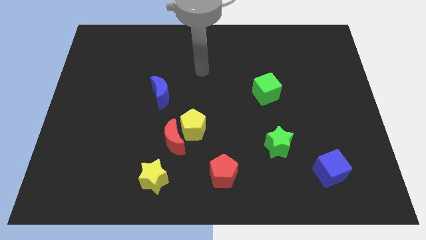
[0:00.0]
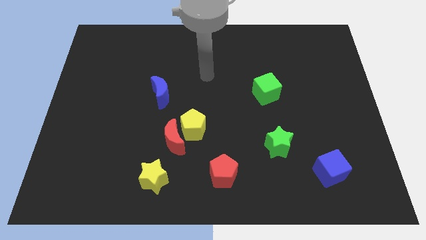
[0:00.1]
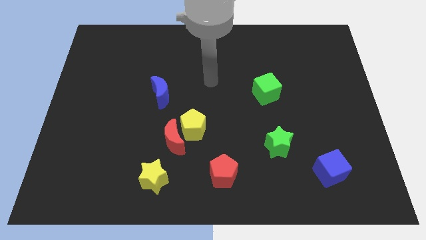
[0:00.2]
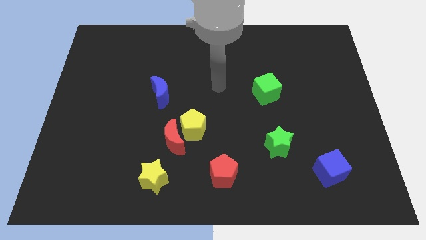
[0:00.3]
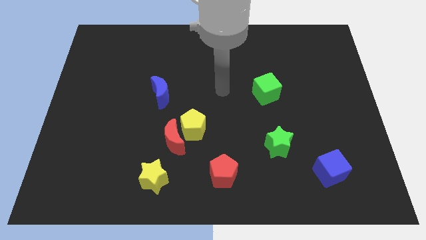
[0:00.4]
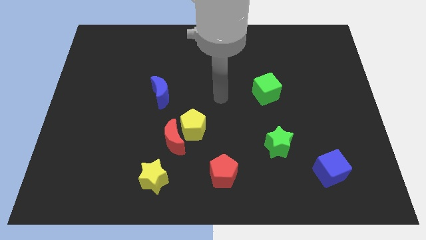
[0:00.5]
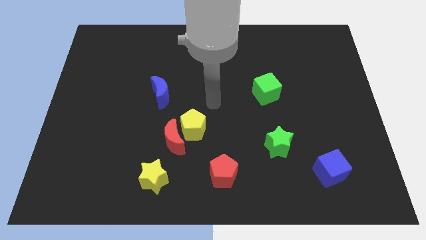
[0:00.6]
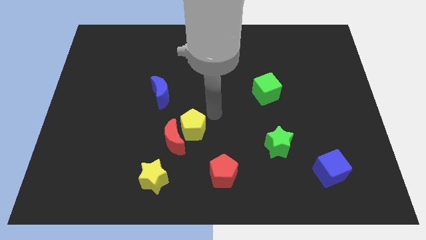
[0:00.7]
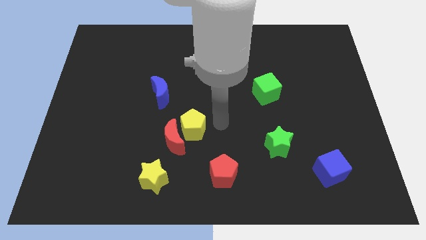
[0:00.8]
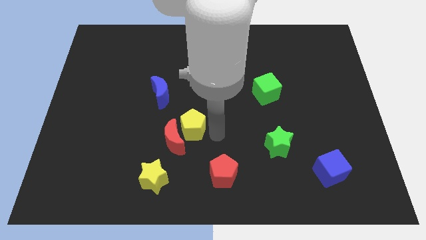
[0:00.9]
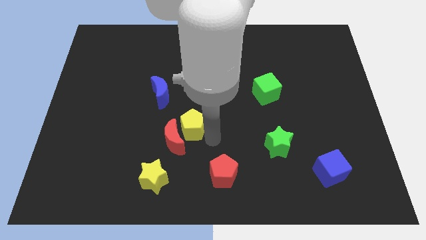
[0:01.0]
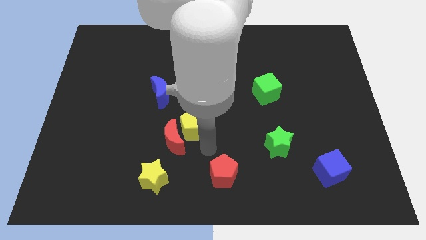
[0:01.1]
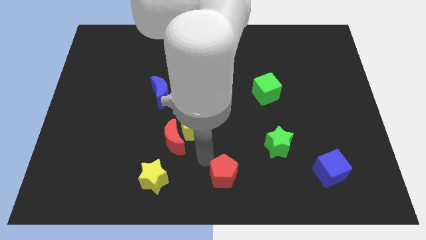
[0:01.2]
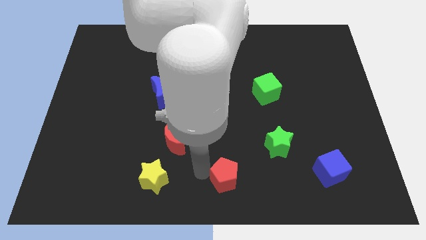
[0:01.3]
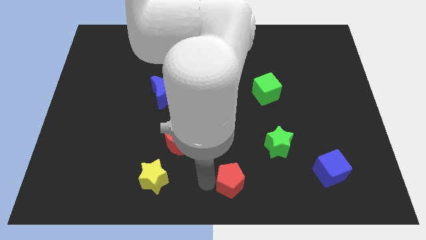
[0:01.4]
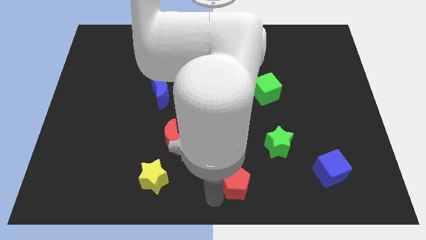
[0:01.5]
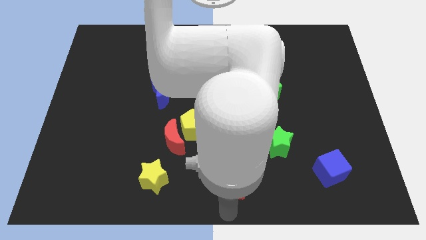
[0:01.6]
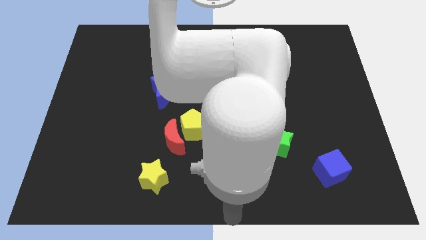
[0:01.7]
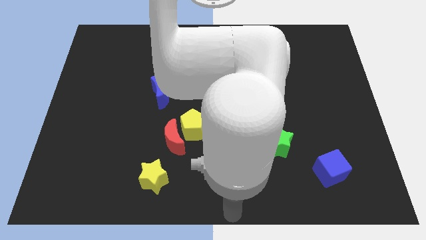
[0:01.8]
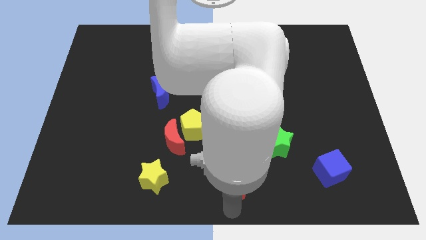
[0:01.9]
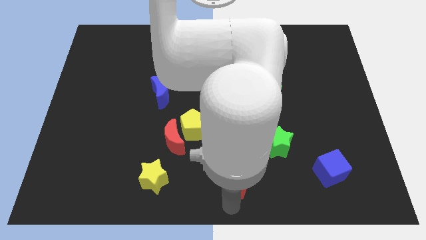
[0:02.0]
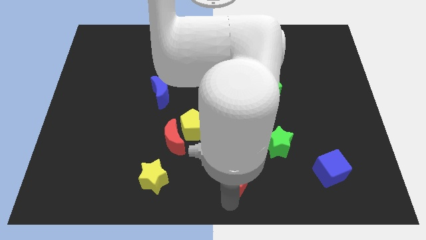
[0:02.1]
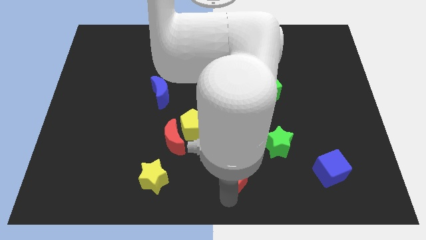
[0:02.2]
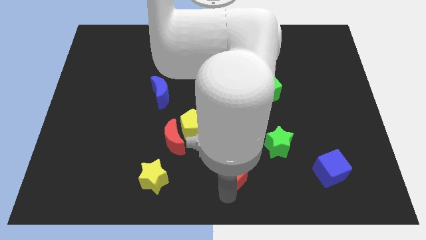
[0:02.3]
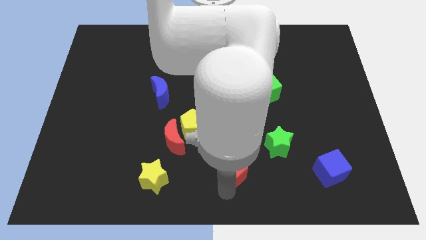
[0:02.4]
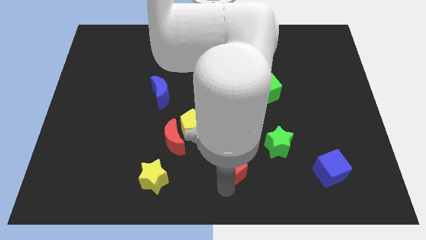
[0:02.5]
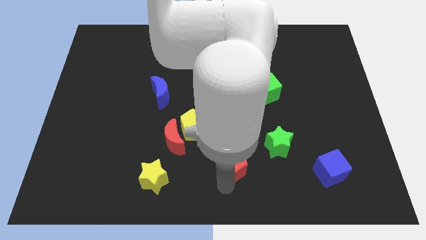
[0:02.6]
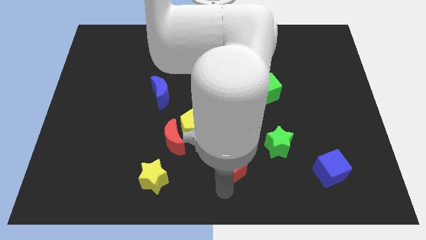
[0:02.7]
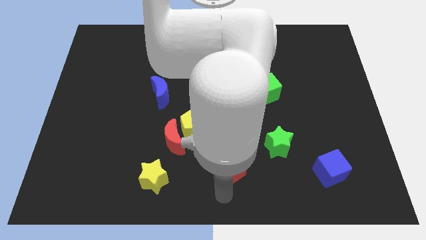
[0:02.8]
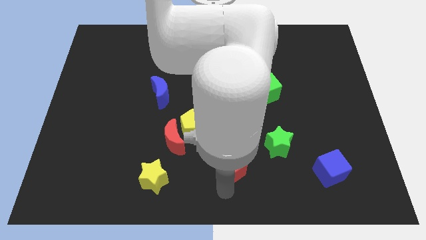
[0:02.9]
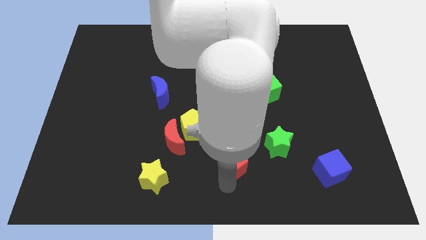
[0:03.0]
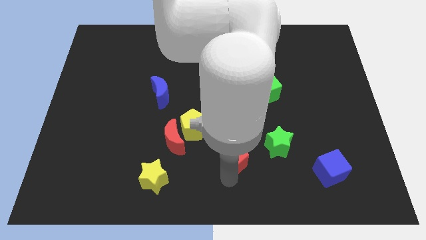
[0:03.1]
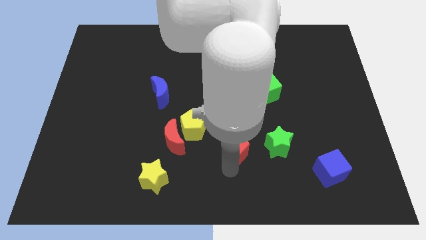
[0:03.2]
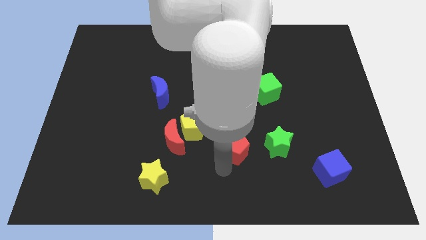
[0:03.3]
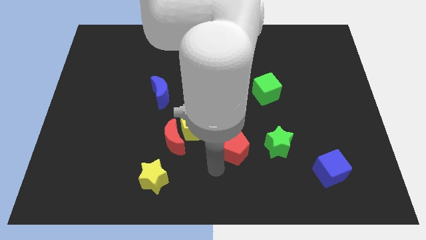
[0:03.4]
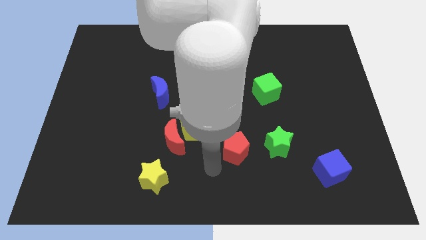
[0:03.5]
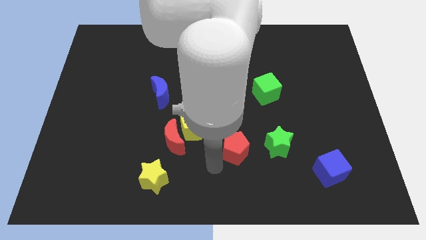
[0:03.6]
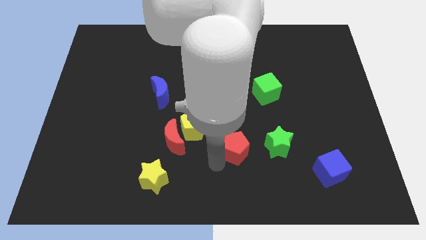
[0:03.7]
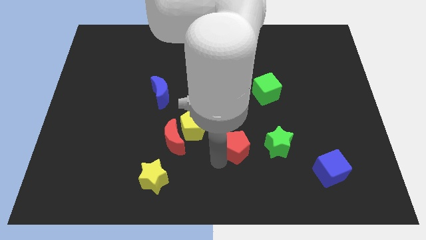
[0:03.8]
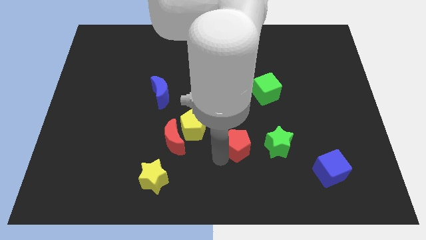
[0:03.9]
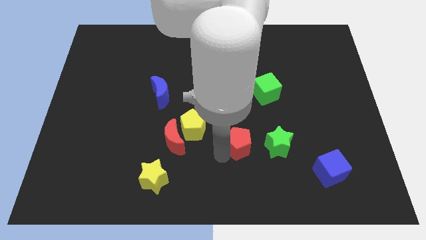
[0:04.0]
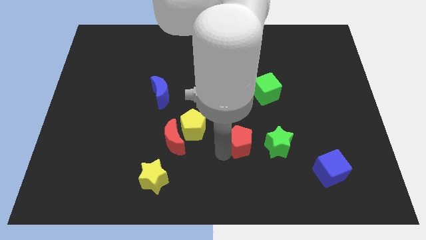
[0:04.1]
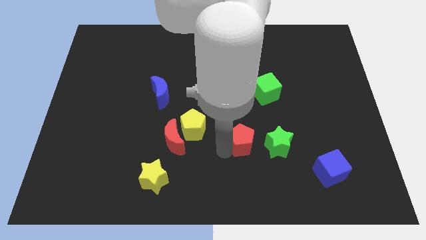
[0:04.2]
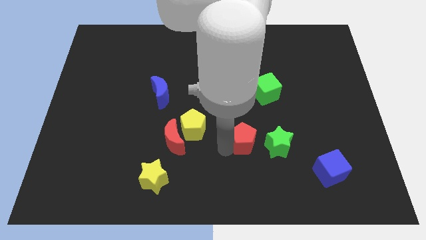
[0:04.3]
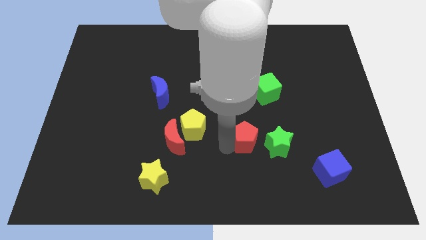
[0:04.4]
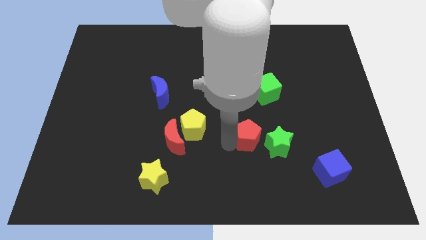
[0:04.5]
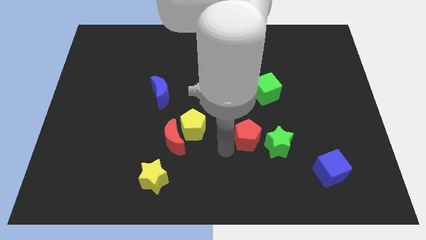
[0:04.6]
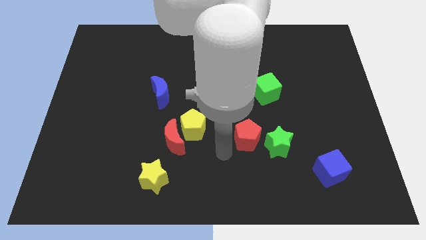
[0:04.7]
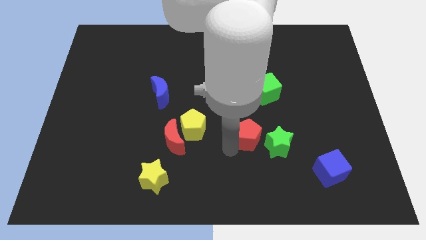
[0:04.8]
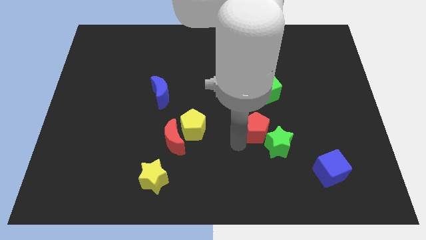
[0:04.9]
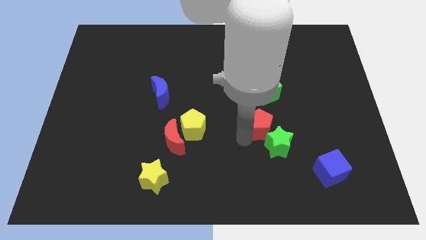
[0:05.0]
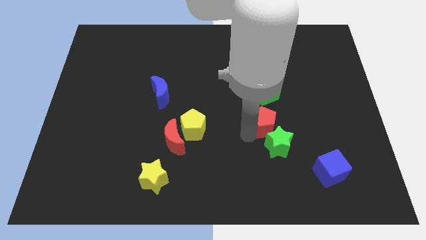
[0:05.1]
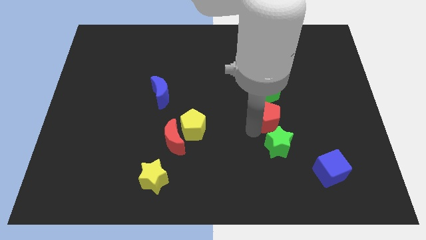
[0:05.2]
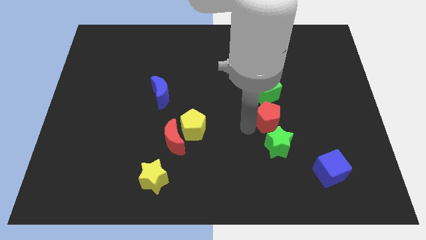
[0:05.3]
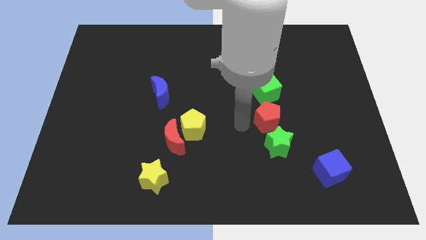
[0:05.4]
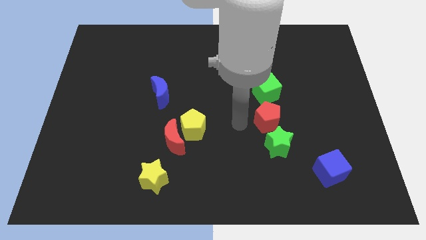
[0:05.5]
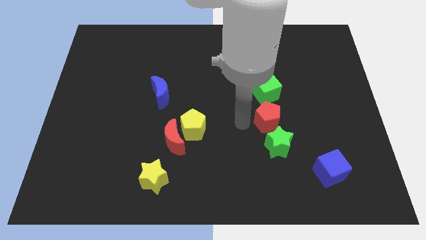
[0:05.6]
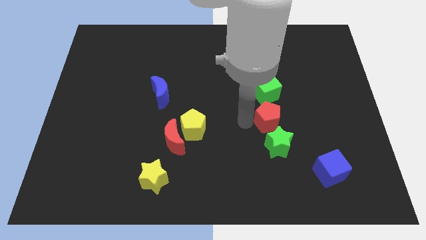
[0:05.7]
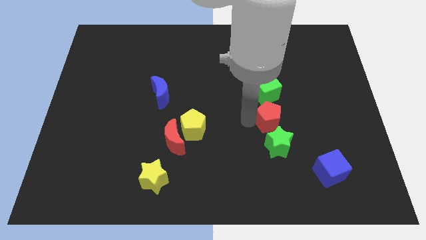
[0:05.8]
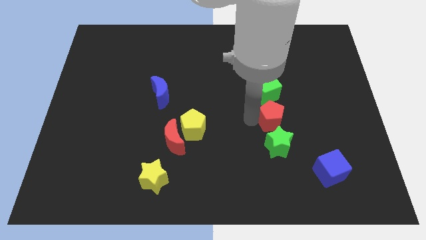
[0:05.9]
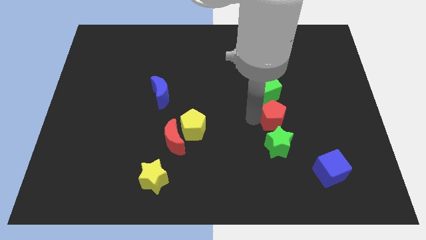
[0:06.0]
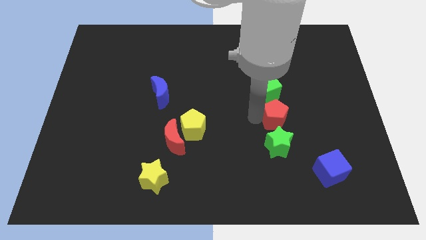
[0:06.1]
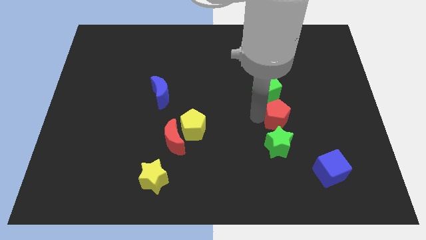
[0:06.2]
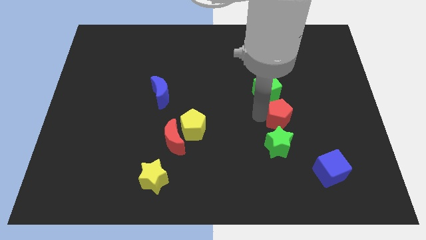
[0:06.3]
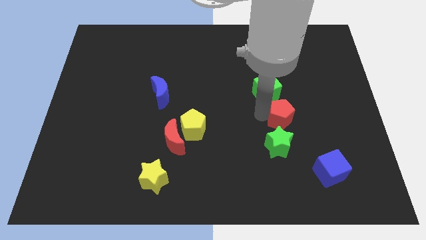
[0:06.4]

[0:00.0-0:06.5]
push the red pentagon up and to the right

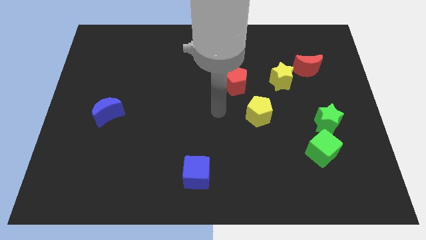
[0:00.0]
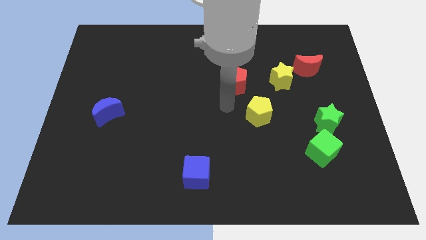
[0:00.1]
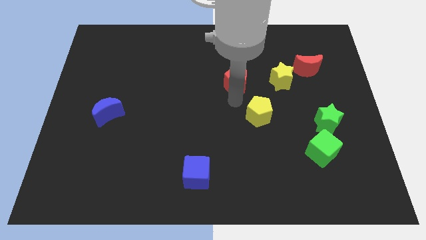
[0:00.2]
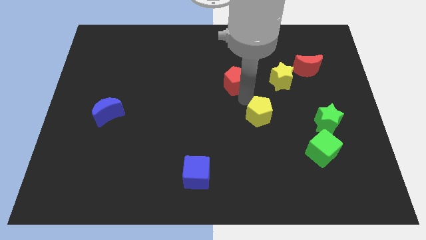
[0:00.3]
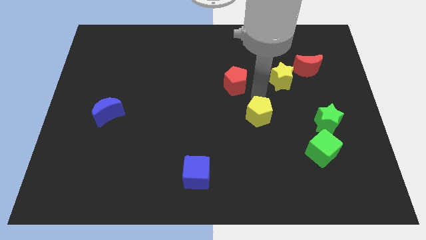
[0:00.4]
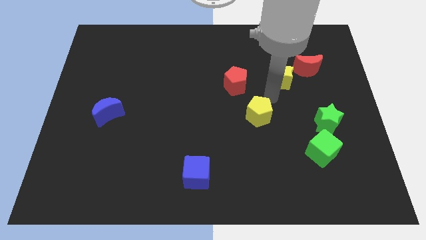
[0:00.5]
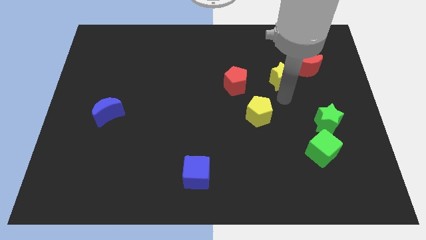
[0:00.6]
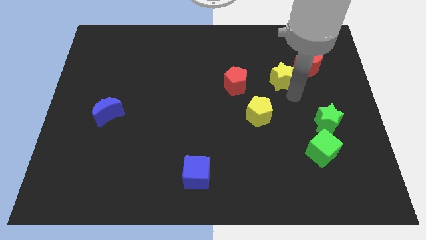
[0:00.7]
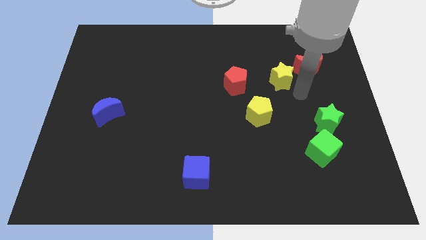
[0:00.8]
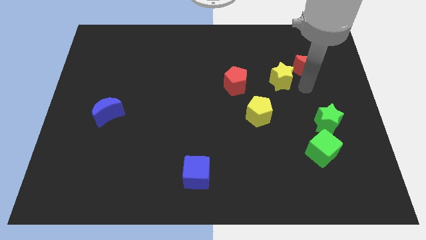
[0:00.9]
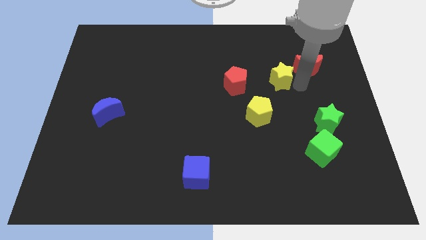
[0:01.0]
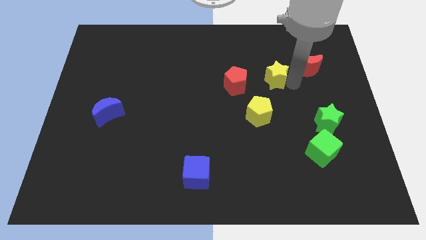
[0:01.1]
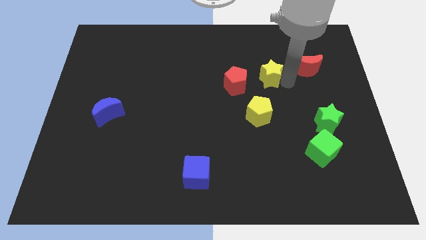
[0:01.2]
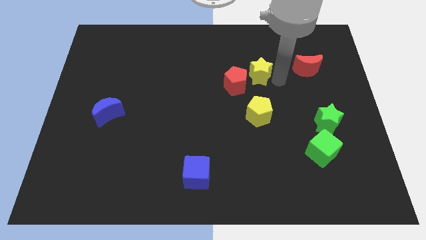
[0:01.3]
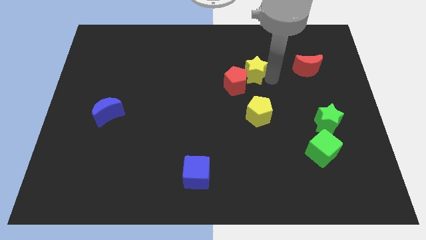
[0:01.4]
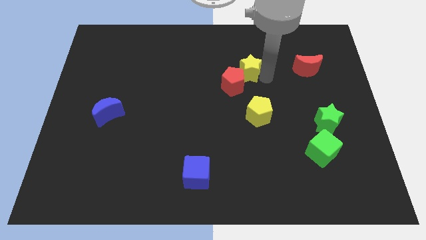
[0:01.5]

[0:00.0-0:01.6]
slide the yellow star left a little bit

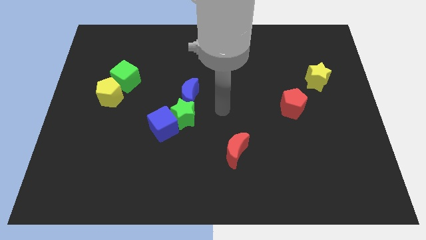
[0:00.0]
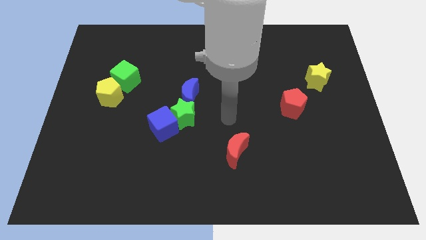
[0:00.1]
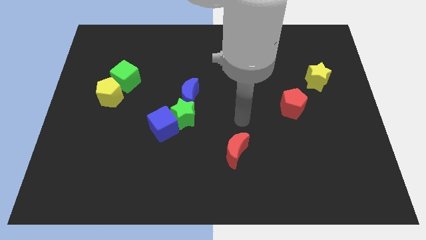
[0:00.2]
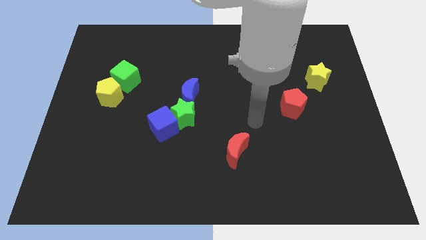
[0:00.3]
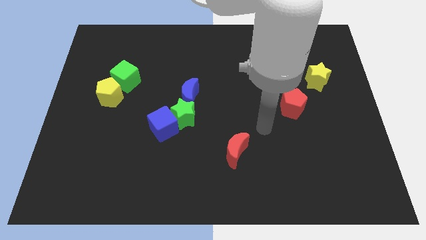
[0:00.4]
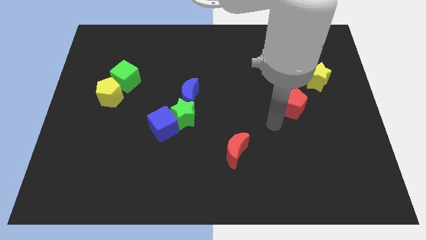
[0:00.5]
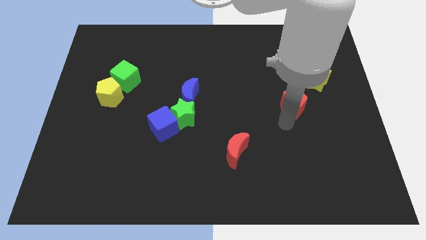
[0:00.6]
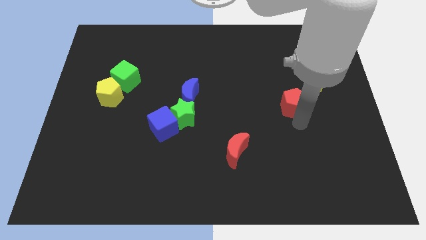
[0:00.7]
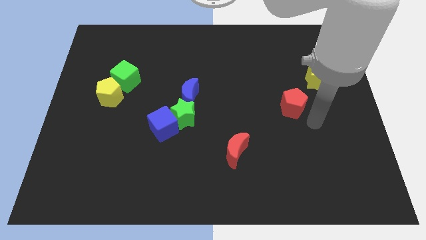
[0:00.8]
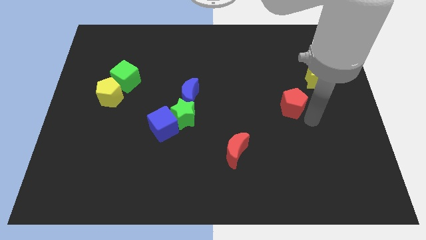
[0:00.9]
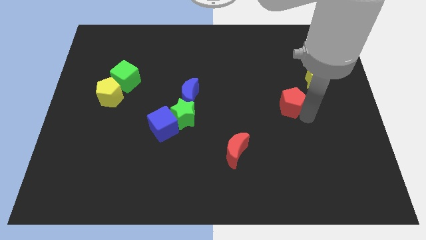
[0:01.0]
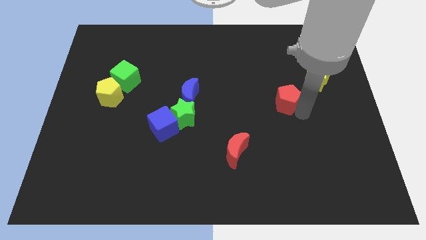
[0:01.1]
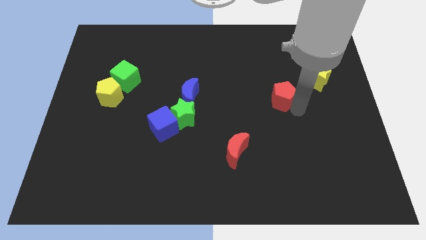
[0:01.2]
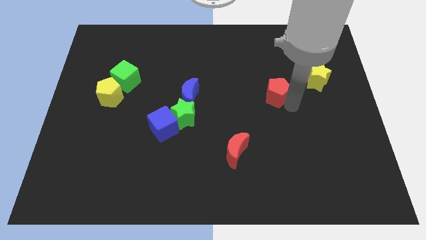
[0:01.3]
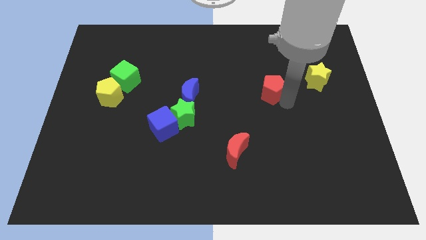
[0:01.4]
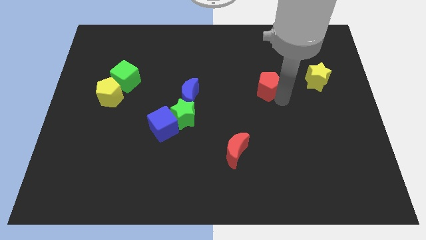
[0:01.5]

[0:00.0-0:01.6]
slightly push the red pentagon up and to the left diagonally
